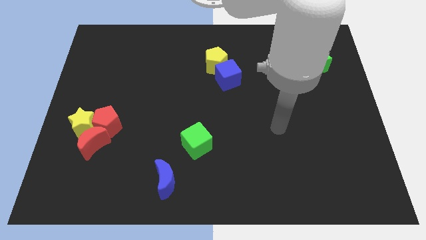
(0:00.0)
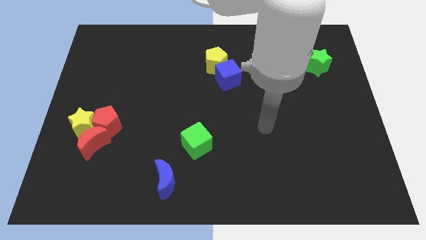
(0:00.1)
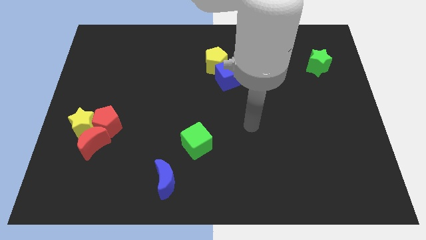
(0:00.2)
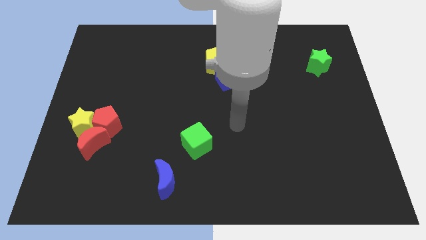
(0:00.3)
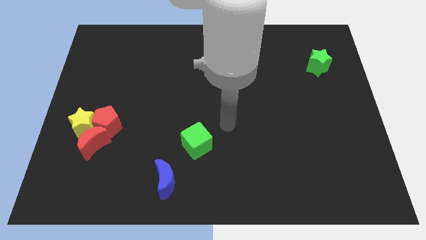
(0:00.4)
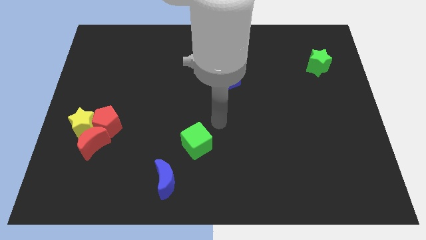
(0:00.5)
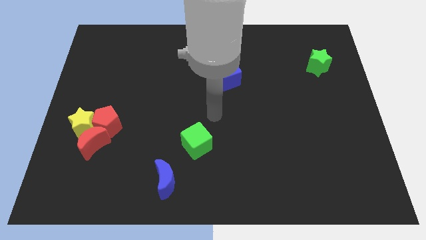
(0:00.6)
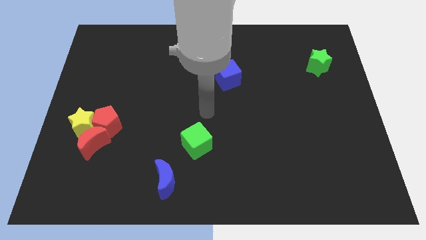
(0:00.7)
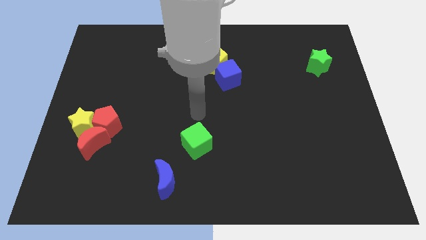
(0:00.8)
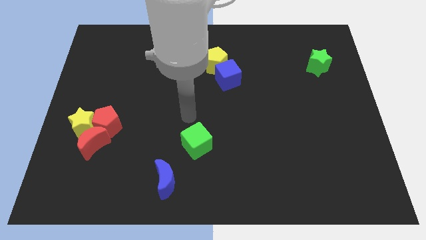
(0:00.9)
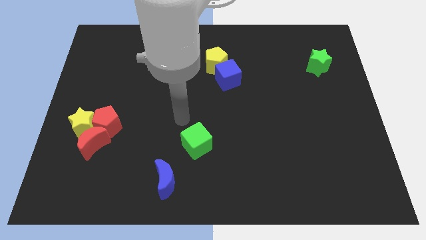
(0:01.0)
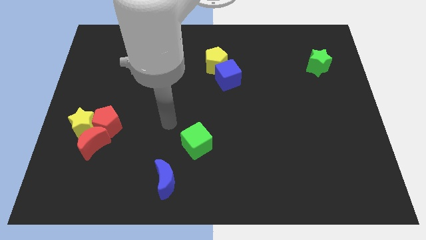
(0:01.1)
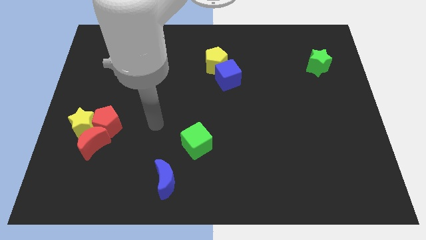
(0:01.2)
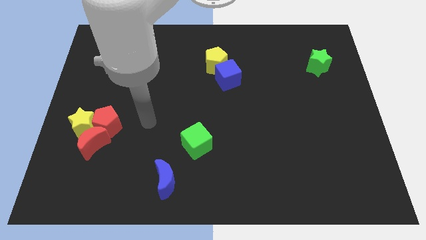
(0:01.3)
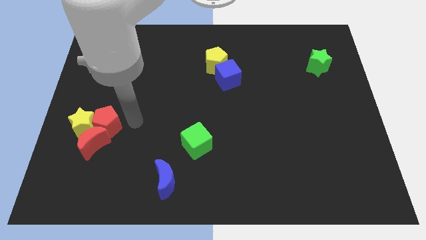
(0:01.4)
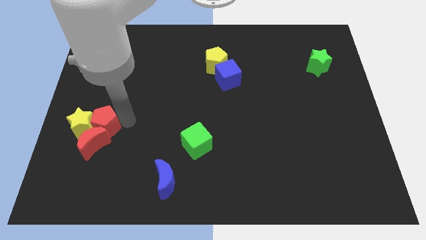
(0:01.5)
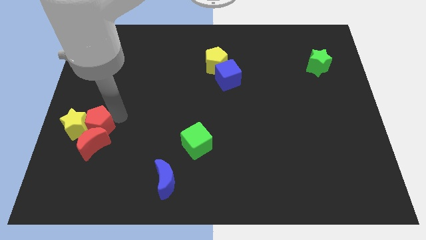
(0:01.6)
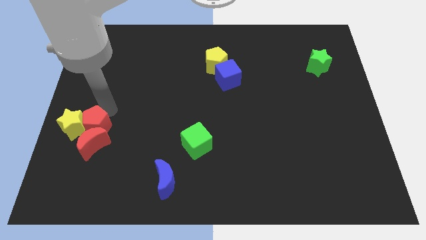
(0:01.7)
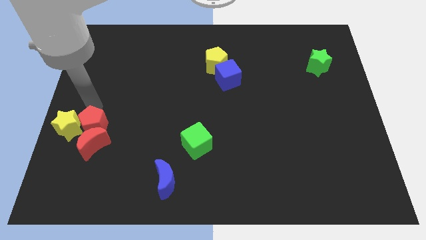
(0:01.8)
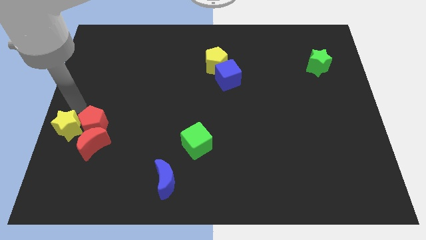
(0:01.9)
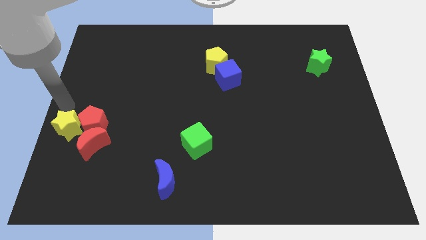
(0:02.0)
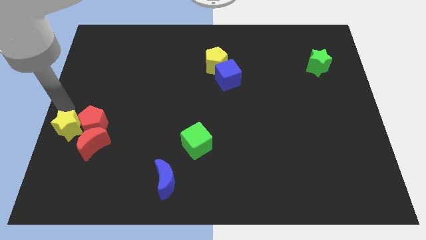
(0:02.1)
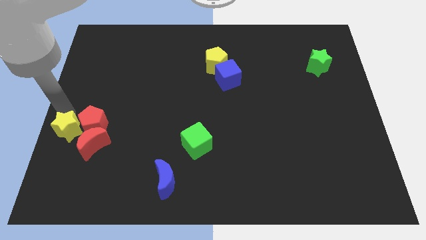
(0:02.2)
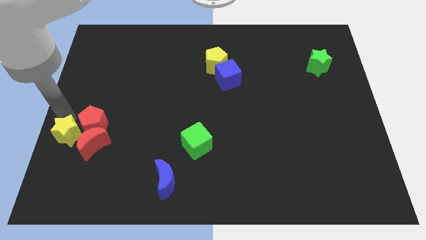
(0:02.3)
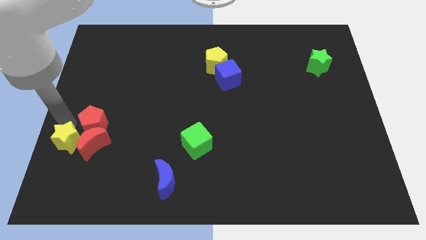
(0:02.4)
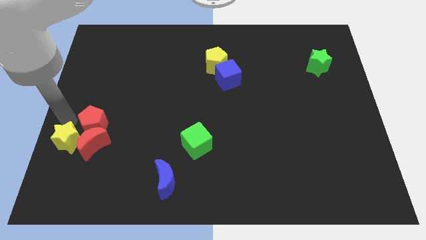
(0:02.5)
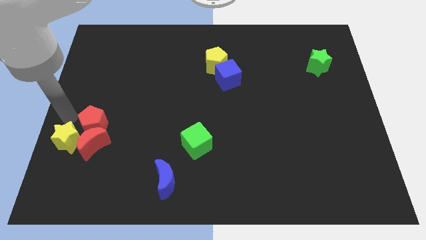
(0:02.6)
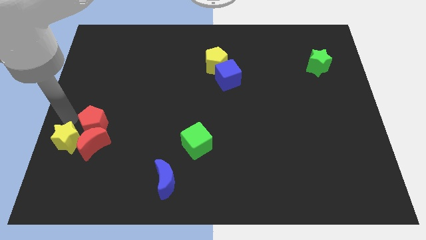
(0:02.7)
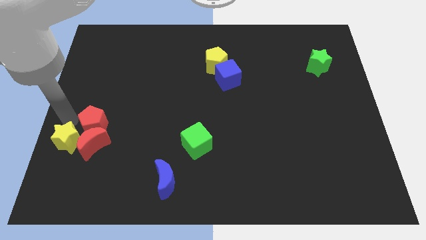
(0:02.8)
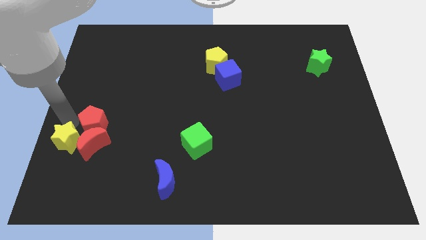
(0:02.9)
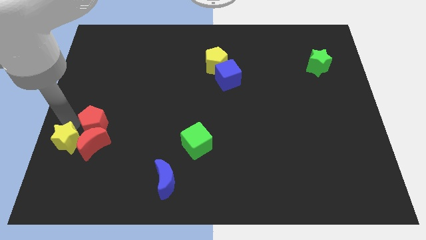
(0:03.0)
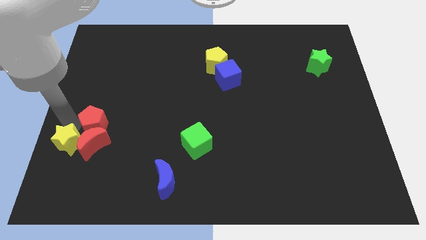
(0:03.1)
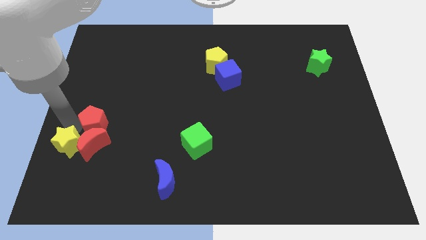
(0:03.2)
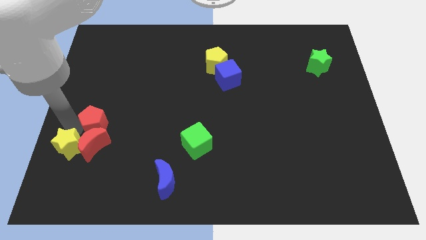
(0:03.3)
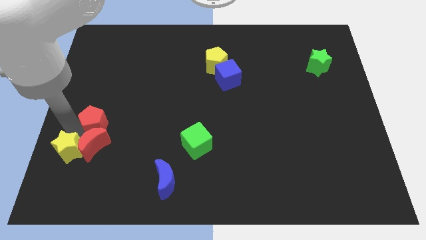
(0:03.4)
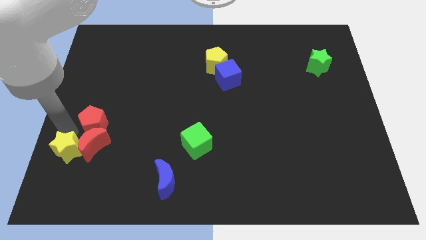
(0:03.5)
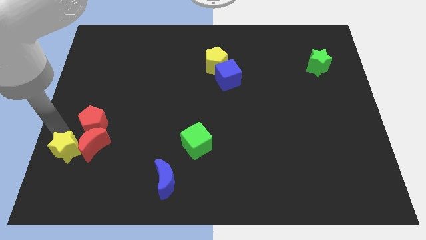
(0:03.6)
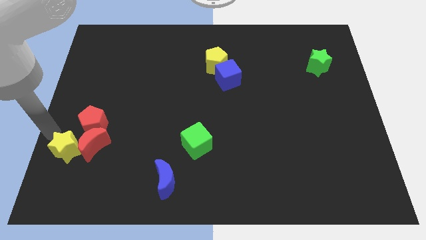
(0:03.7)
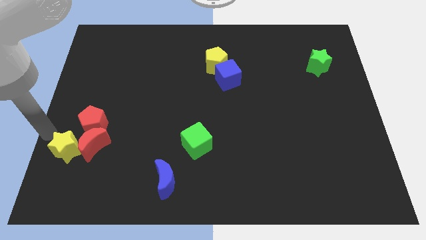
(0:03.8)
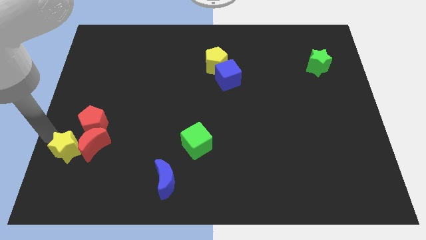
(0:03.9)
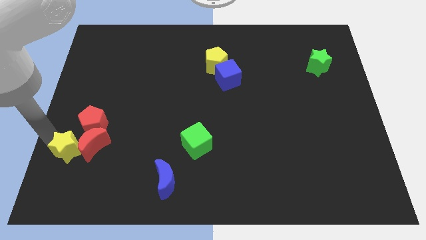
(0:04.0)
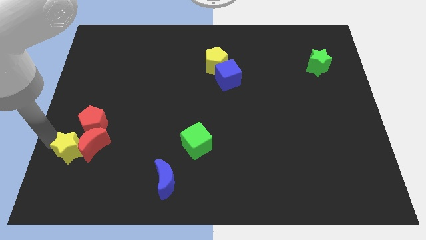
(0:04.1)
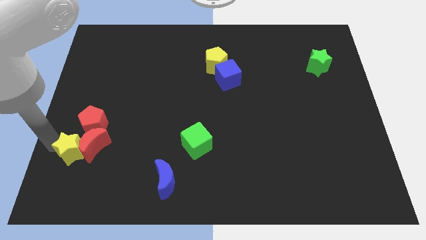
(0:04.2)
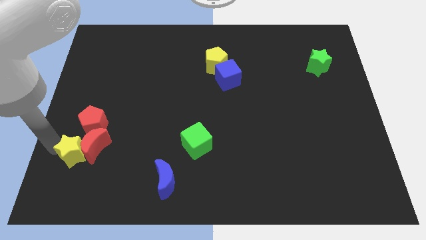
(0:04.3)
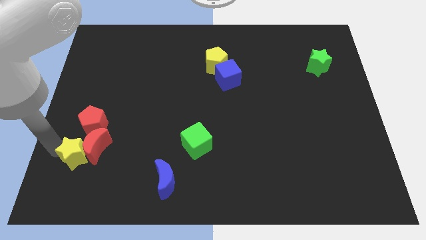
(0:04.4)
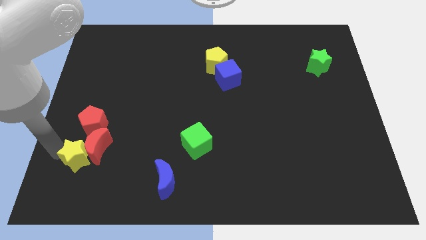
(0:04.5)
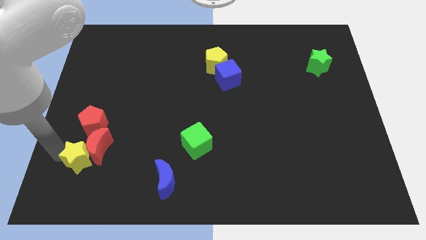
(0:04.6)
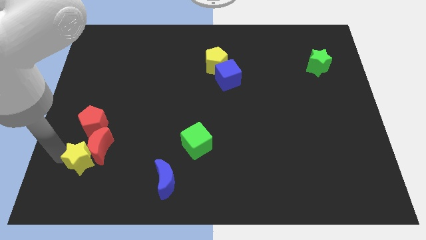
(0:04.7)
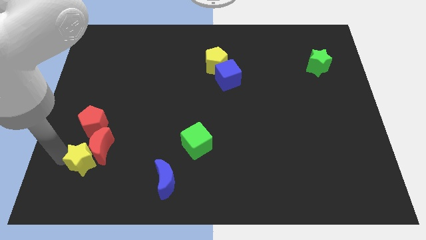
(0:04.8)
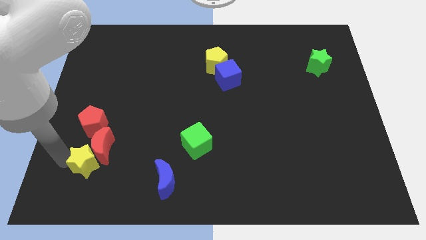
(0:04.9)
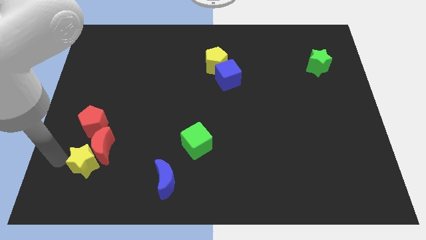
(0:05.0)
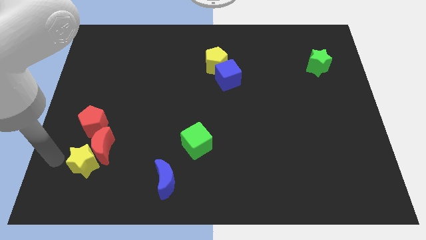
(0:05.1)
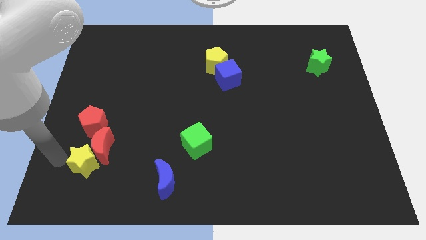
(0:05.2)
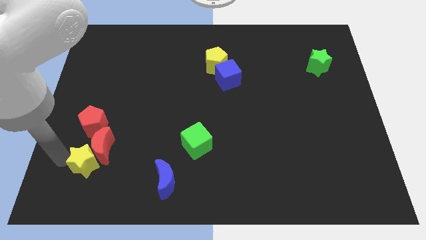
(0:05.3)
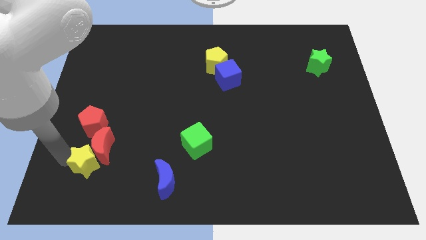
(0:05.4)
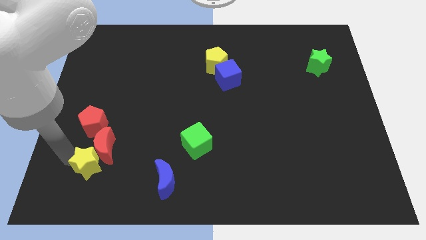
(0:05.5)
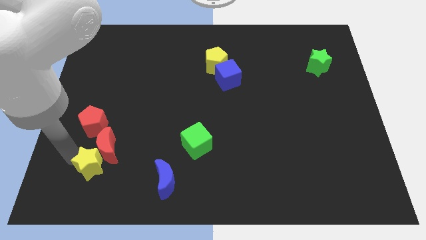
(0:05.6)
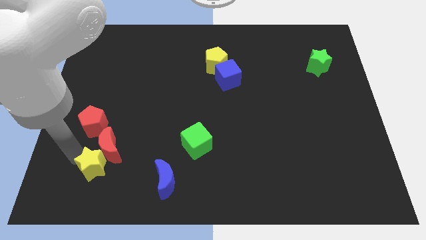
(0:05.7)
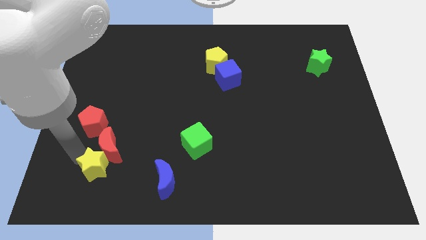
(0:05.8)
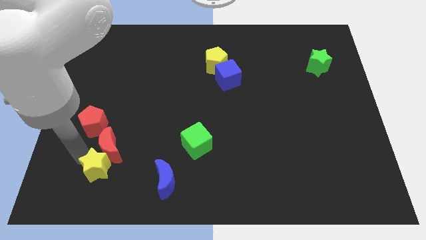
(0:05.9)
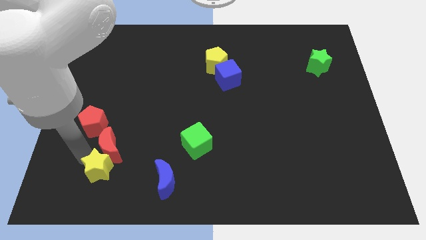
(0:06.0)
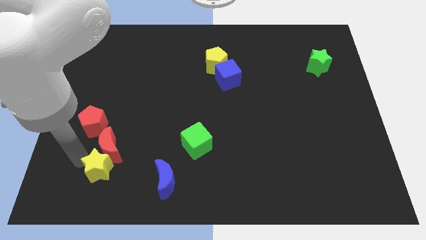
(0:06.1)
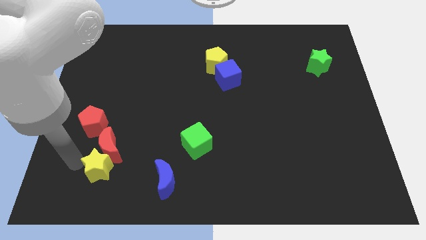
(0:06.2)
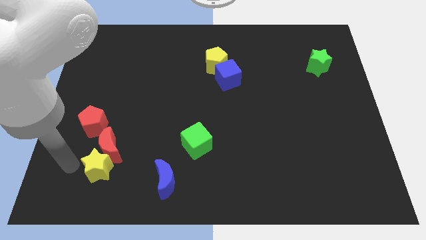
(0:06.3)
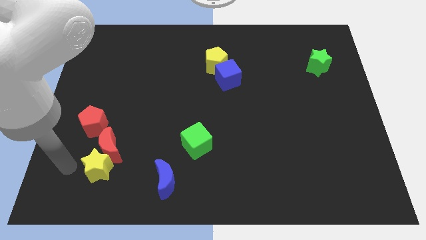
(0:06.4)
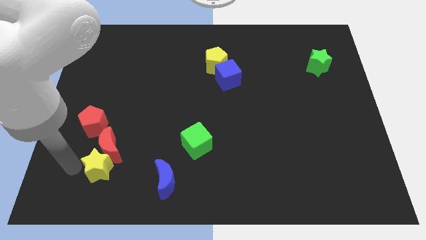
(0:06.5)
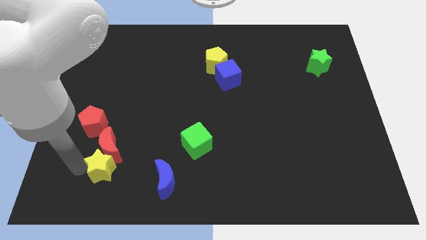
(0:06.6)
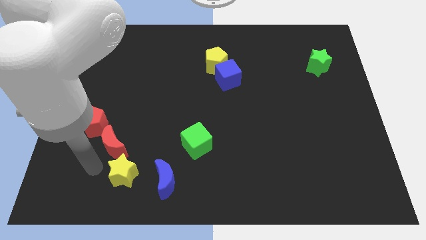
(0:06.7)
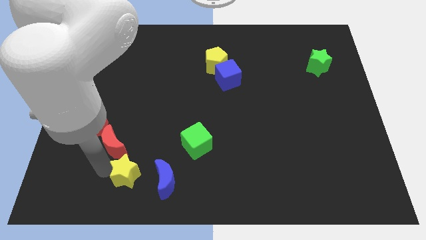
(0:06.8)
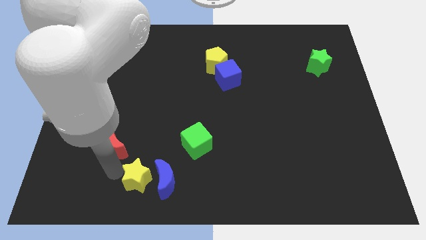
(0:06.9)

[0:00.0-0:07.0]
push the yellow star close to the blue moon

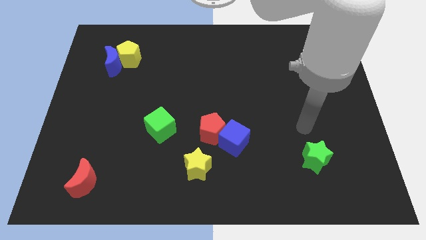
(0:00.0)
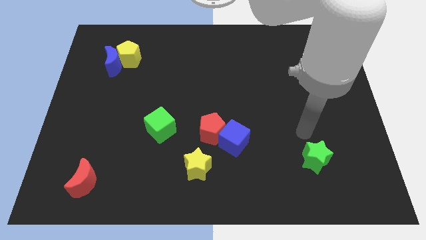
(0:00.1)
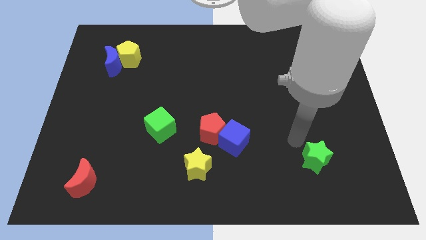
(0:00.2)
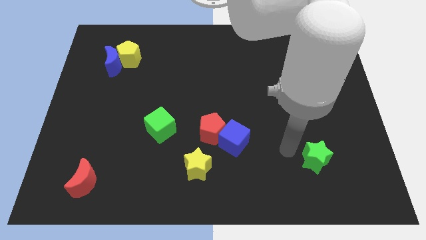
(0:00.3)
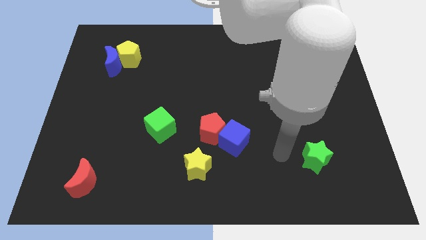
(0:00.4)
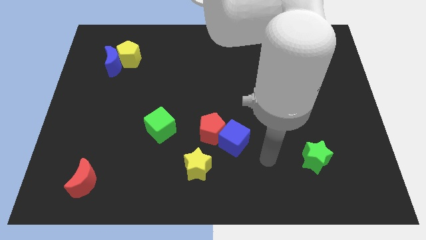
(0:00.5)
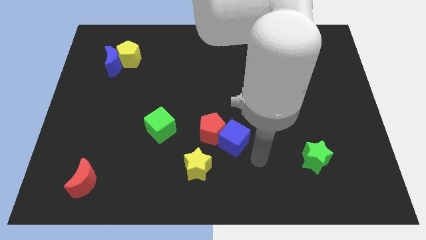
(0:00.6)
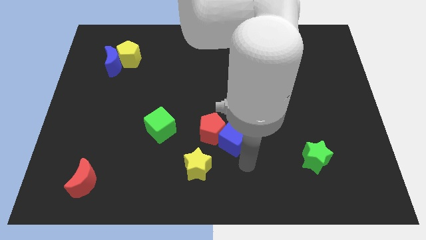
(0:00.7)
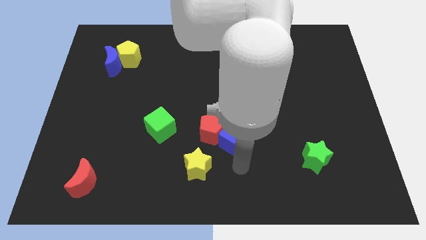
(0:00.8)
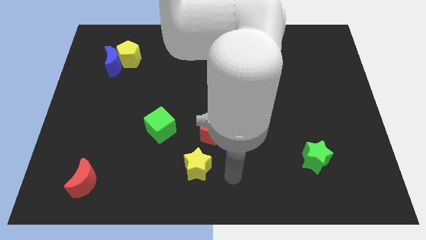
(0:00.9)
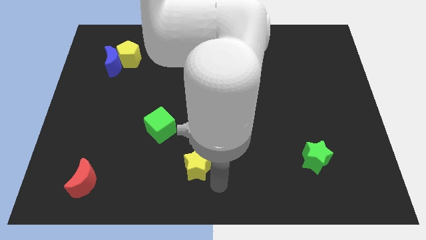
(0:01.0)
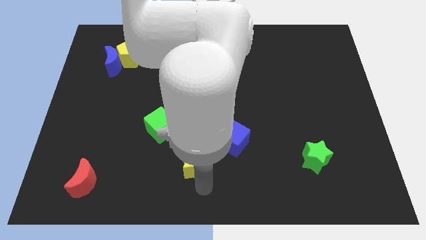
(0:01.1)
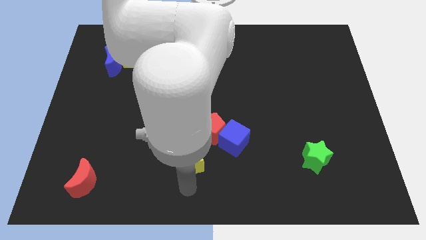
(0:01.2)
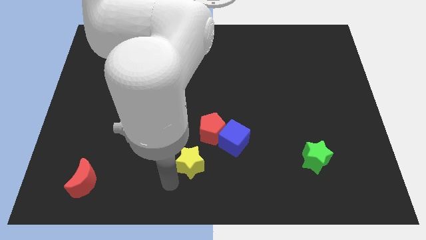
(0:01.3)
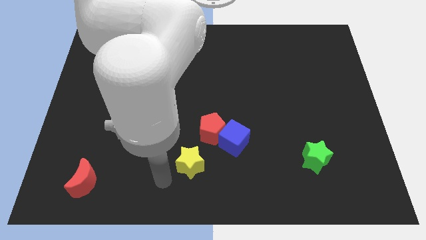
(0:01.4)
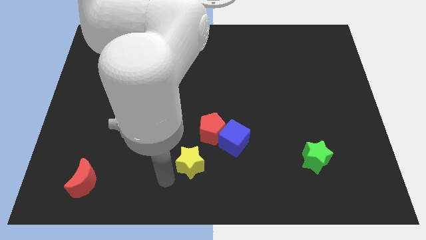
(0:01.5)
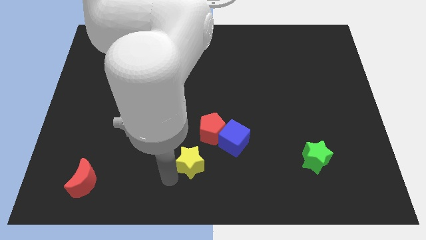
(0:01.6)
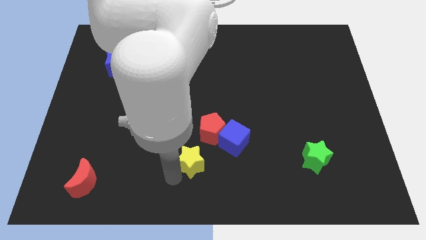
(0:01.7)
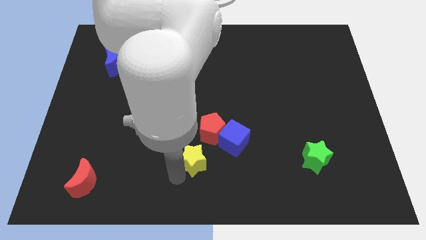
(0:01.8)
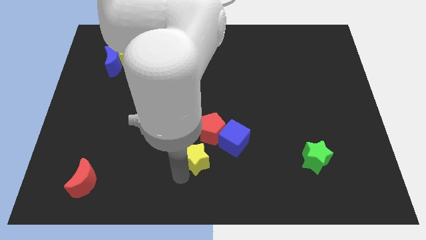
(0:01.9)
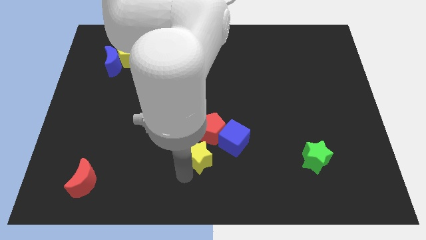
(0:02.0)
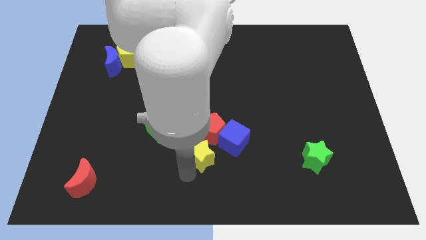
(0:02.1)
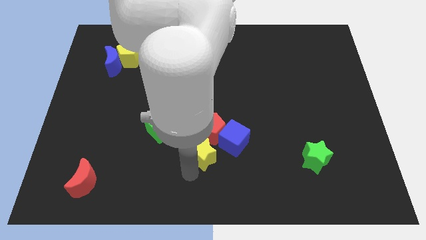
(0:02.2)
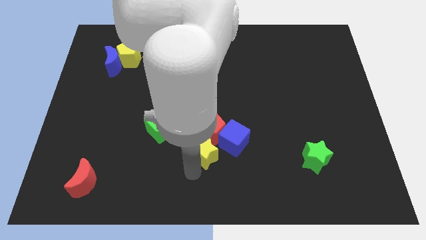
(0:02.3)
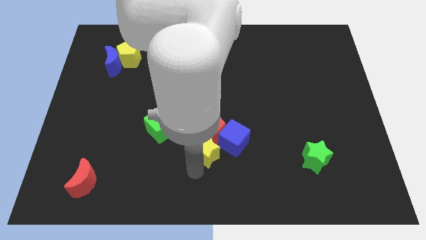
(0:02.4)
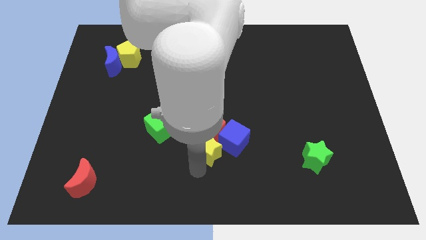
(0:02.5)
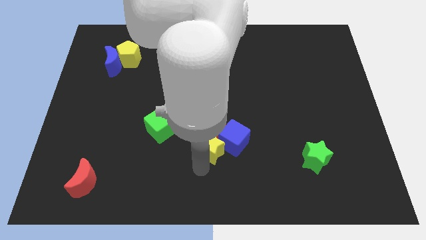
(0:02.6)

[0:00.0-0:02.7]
push the yellow star to the blue cube
